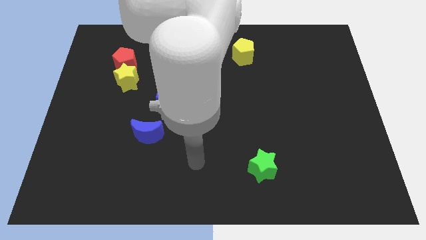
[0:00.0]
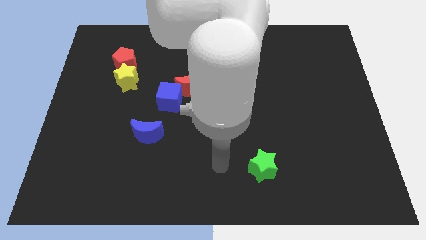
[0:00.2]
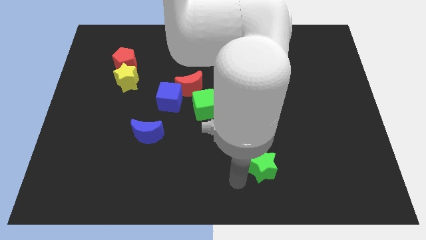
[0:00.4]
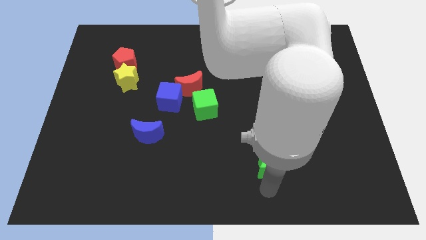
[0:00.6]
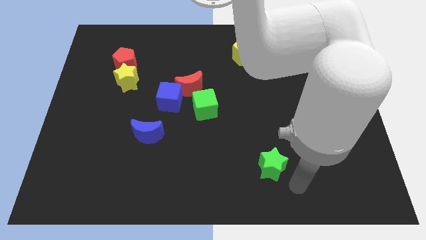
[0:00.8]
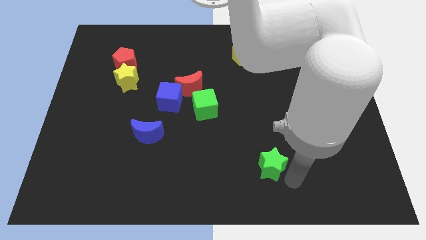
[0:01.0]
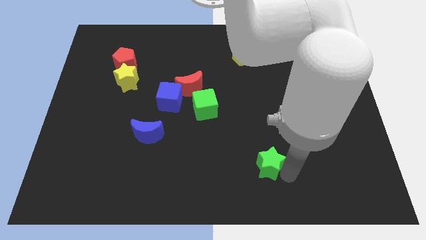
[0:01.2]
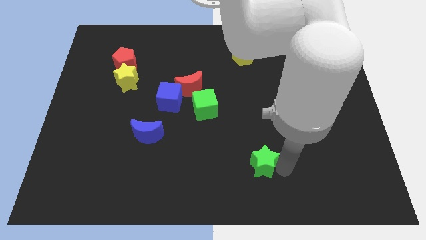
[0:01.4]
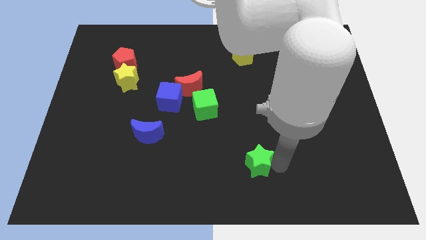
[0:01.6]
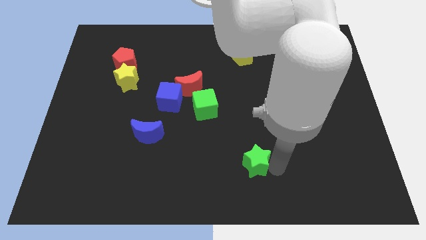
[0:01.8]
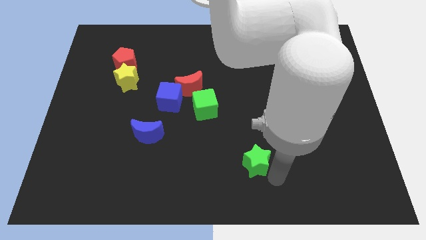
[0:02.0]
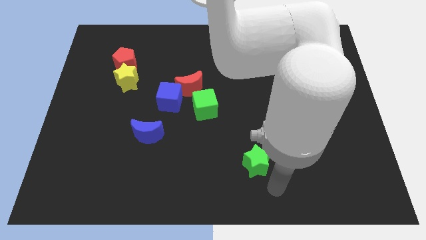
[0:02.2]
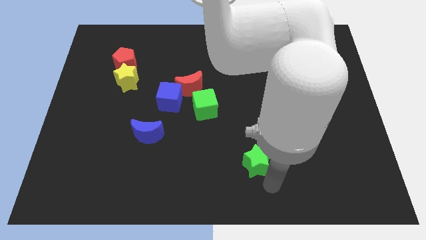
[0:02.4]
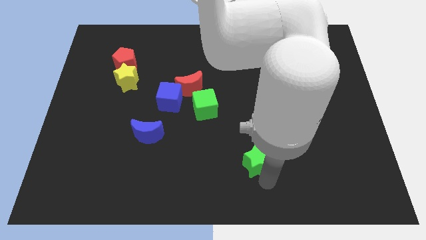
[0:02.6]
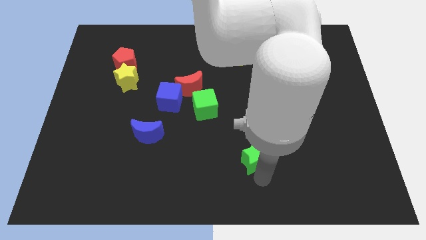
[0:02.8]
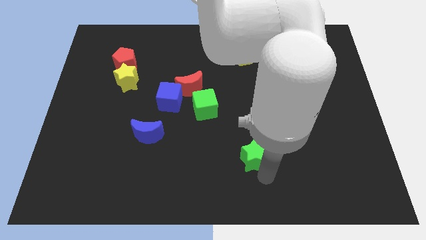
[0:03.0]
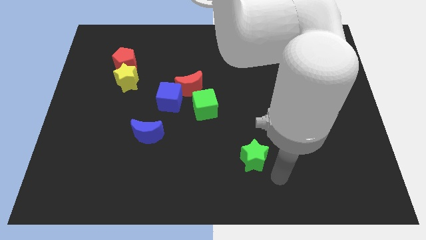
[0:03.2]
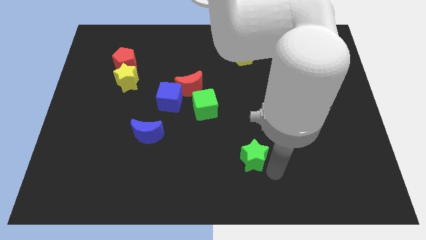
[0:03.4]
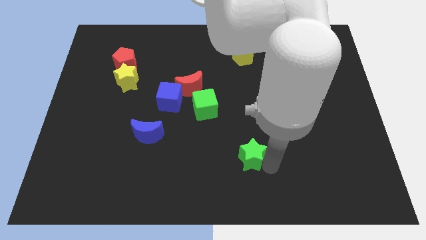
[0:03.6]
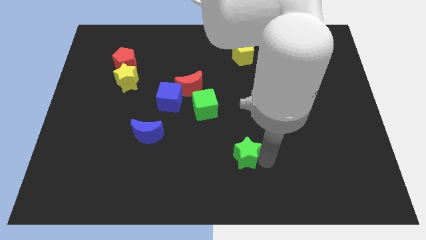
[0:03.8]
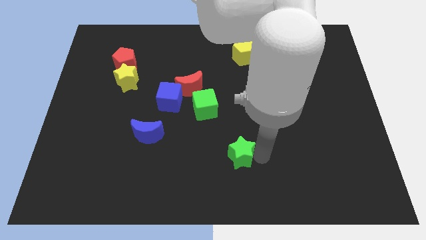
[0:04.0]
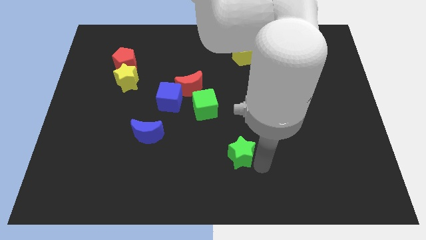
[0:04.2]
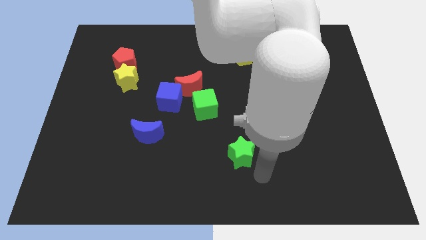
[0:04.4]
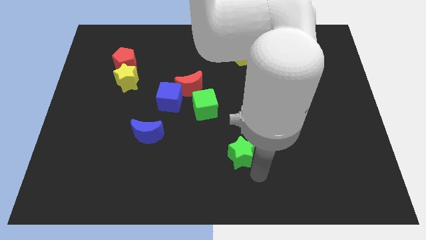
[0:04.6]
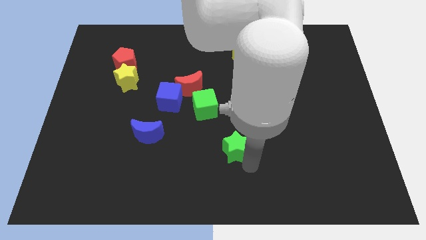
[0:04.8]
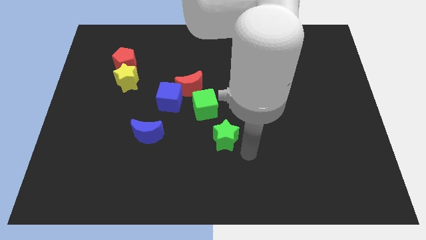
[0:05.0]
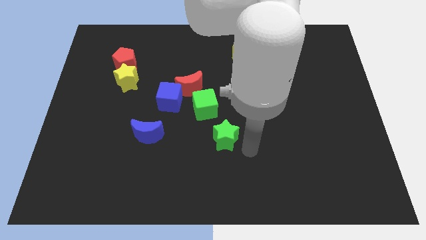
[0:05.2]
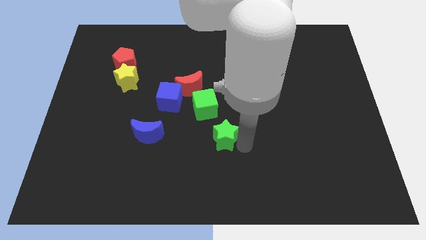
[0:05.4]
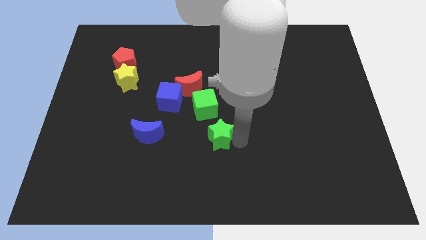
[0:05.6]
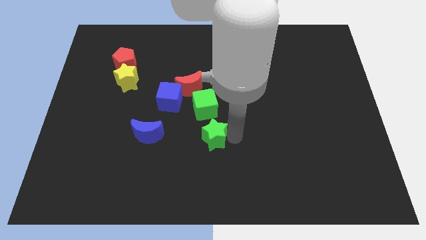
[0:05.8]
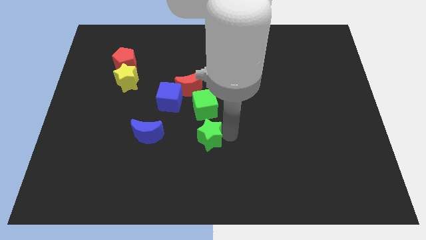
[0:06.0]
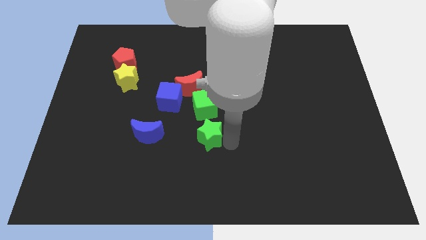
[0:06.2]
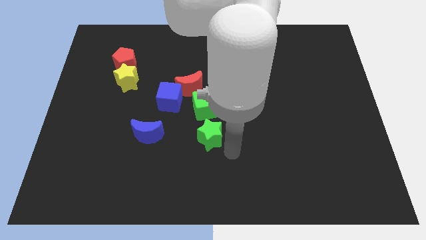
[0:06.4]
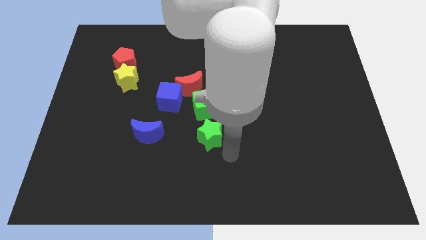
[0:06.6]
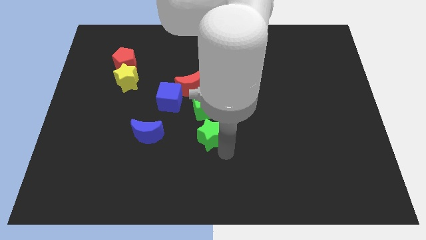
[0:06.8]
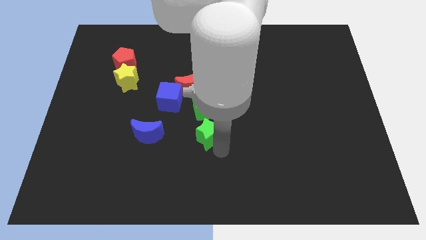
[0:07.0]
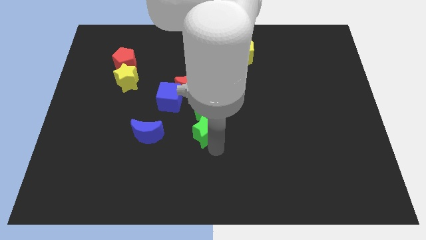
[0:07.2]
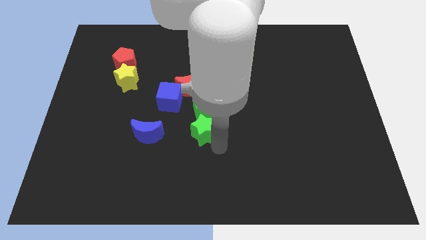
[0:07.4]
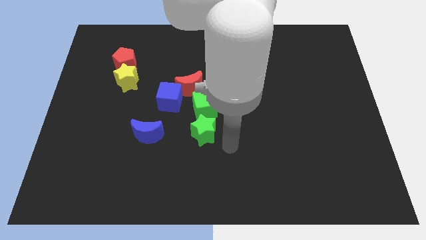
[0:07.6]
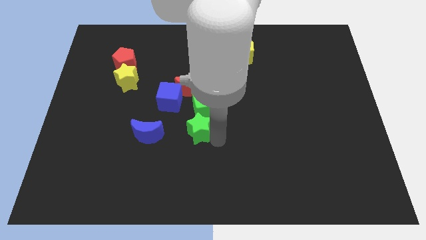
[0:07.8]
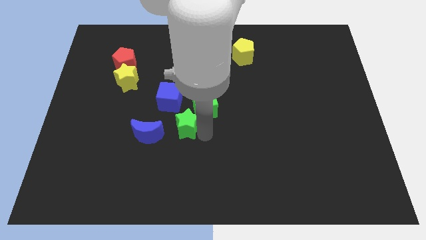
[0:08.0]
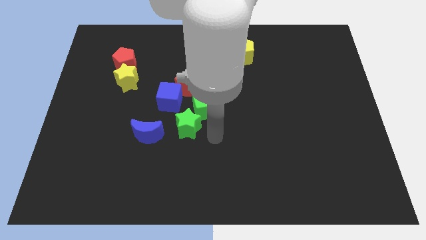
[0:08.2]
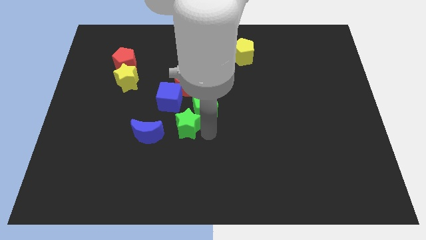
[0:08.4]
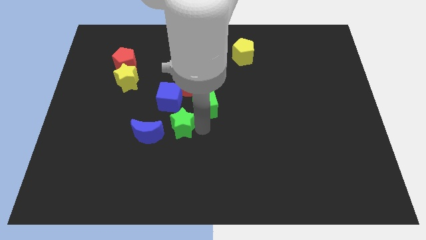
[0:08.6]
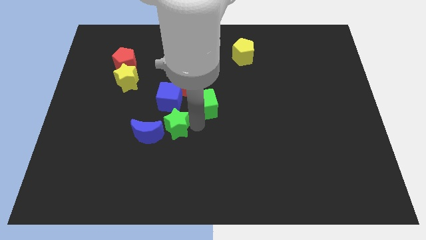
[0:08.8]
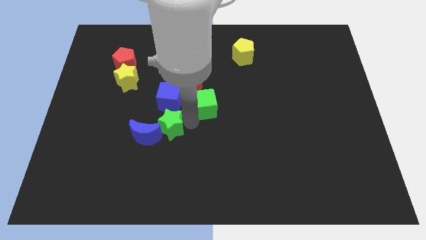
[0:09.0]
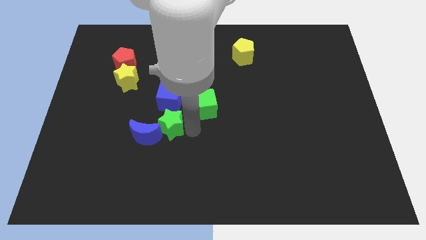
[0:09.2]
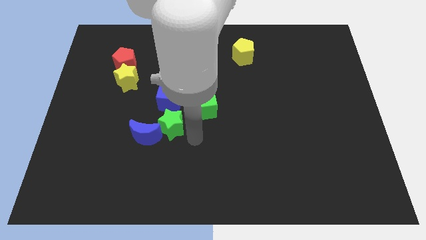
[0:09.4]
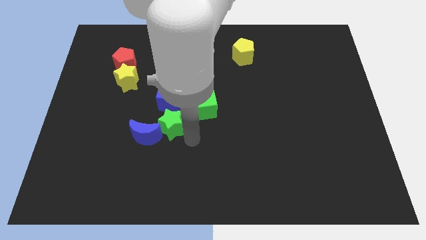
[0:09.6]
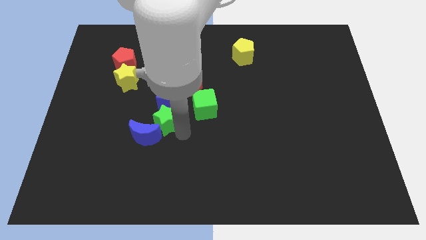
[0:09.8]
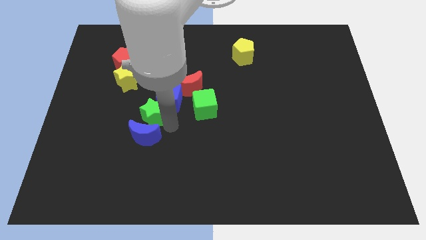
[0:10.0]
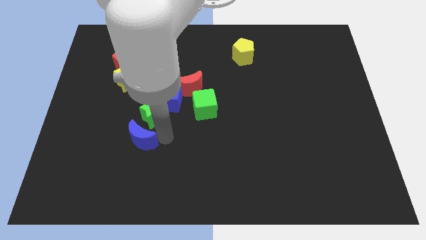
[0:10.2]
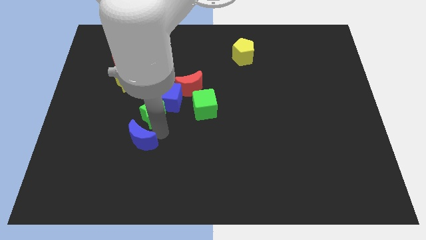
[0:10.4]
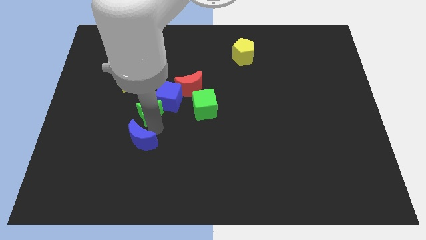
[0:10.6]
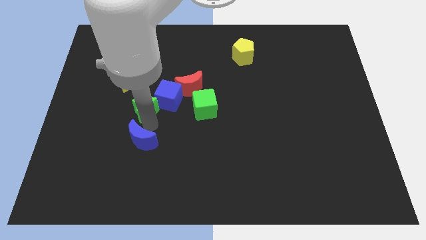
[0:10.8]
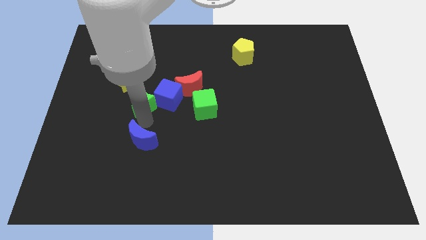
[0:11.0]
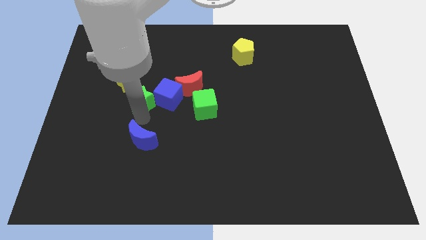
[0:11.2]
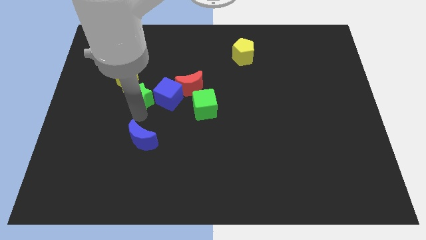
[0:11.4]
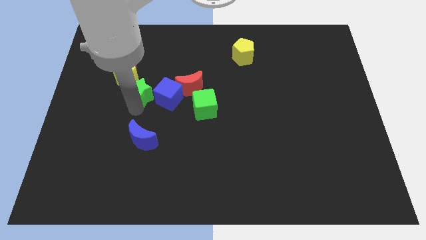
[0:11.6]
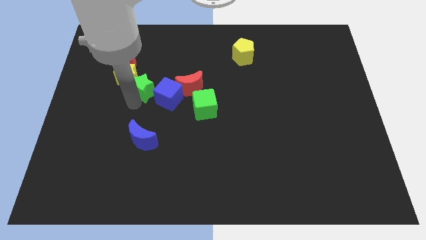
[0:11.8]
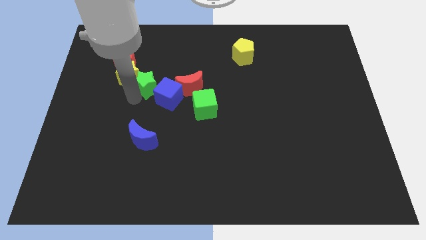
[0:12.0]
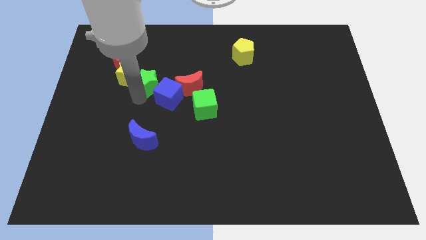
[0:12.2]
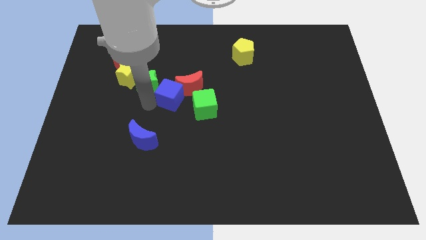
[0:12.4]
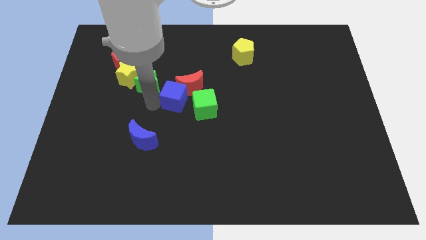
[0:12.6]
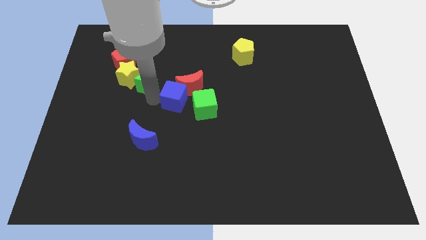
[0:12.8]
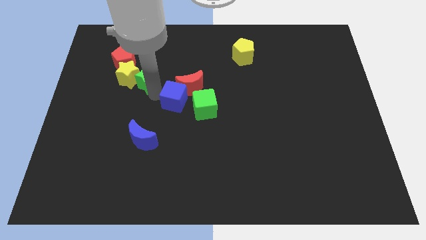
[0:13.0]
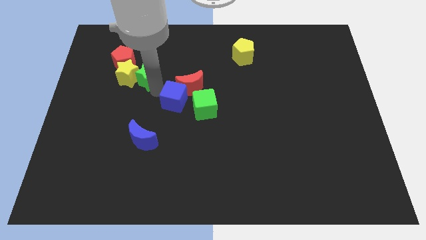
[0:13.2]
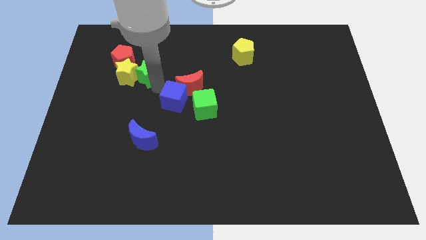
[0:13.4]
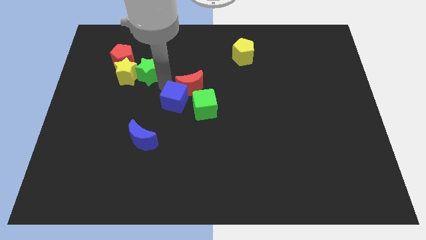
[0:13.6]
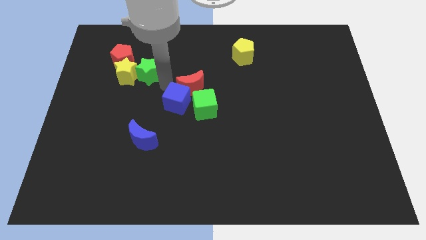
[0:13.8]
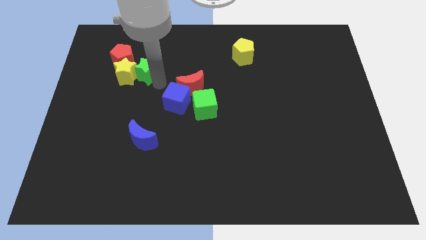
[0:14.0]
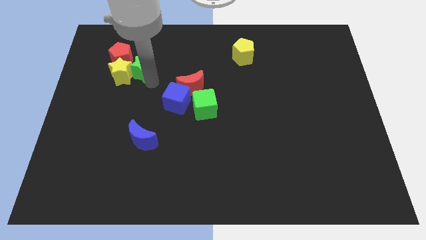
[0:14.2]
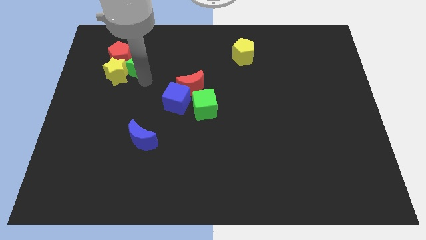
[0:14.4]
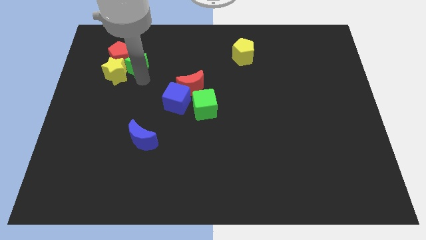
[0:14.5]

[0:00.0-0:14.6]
slide the green star close to the red pentagon
